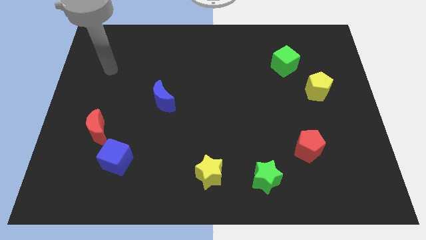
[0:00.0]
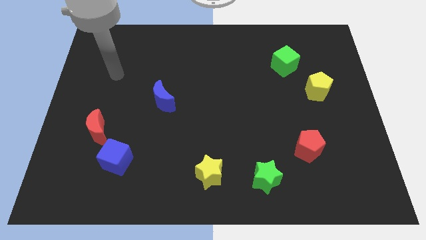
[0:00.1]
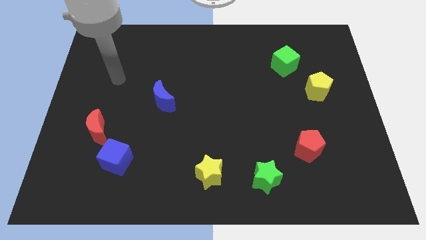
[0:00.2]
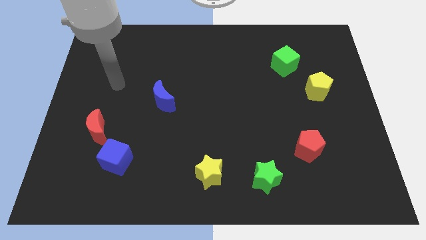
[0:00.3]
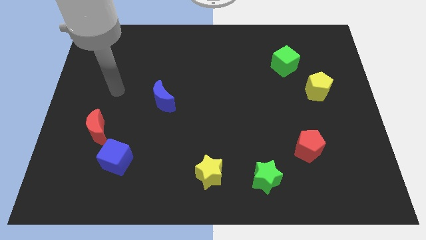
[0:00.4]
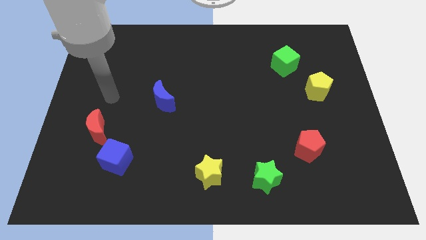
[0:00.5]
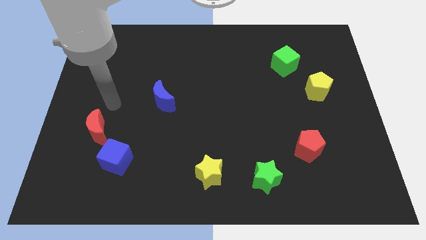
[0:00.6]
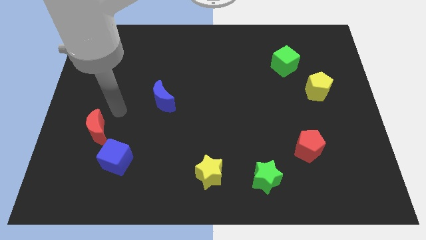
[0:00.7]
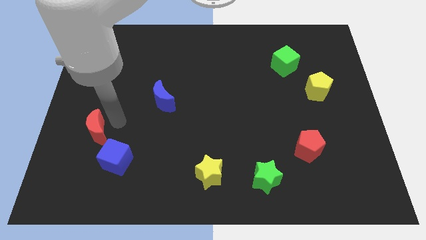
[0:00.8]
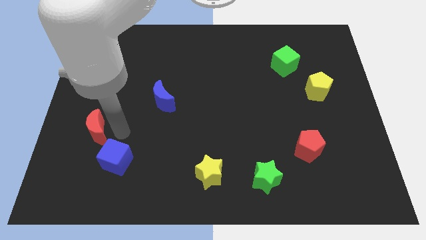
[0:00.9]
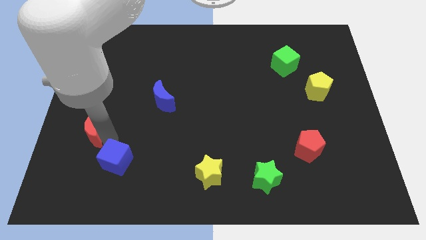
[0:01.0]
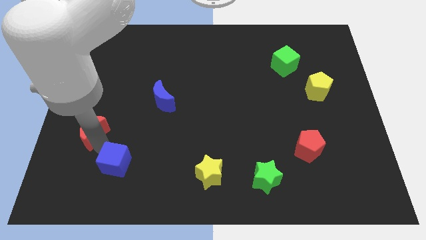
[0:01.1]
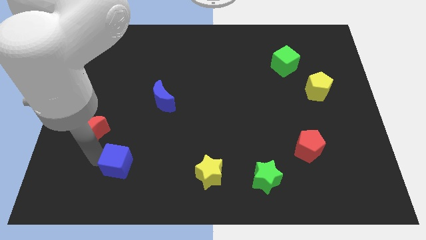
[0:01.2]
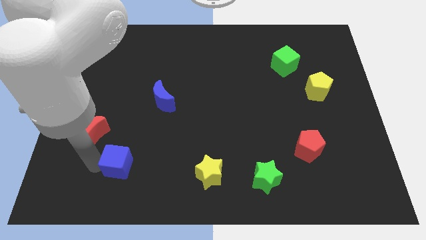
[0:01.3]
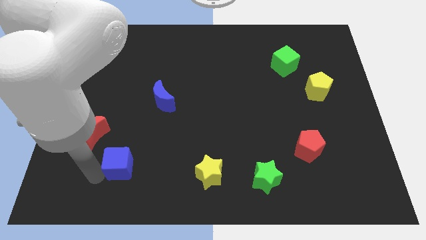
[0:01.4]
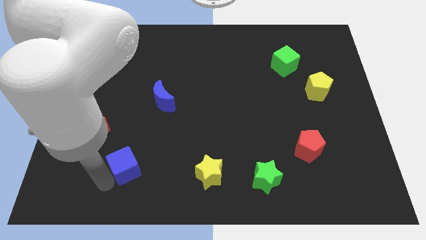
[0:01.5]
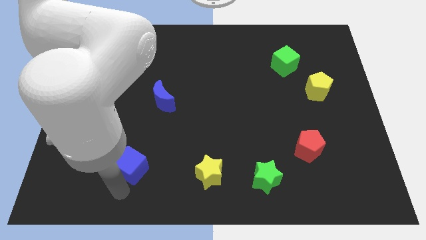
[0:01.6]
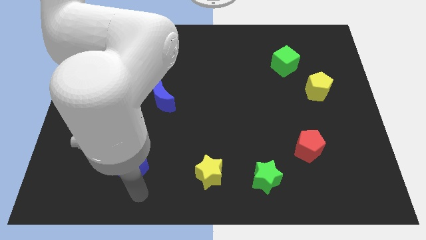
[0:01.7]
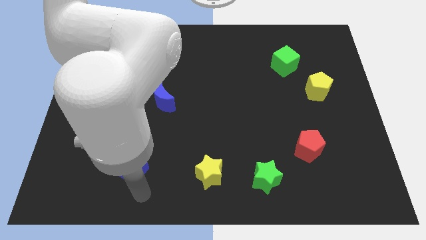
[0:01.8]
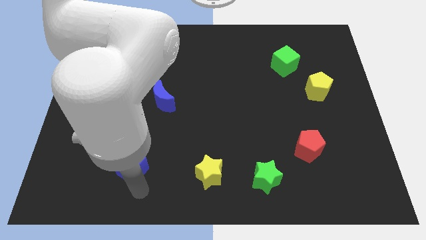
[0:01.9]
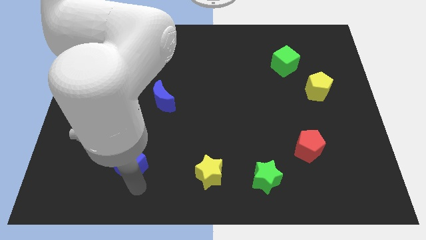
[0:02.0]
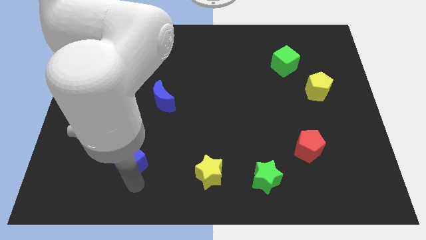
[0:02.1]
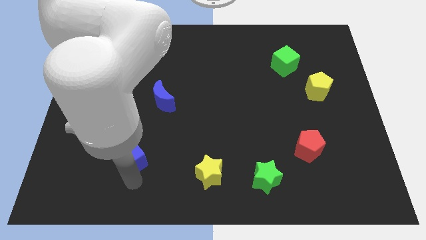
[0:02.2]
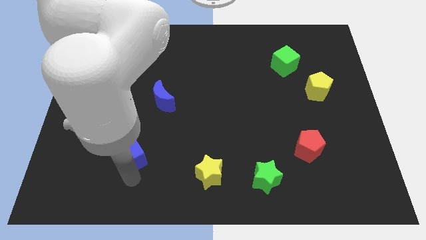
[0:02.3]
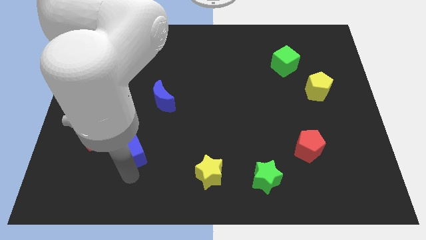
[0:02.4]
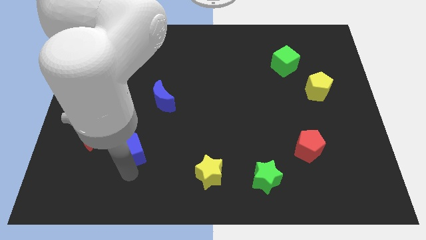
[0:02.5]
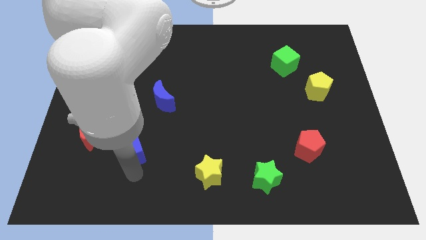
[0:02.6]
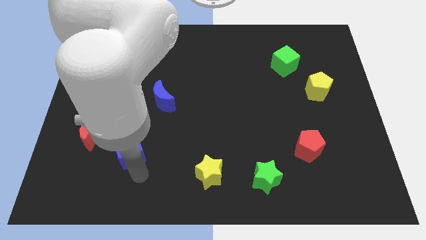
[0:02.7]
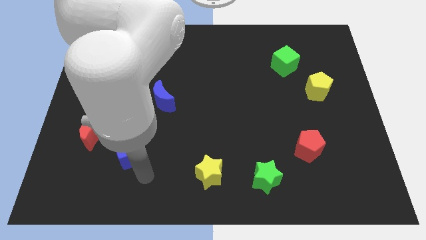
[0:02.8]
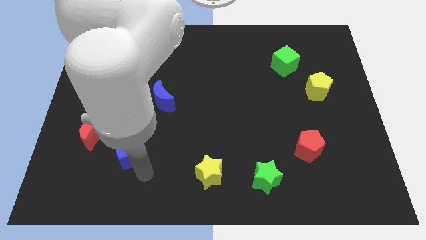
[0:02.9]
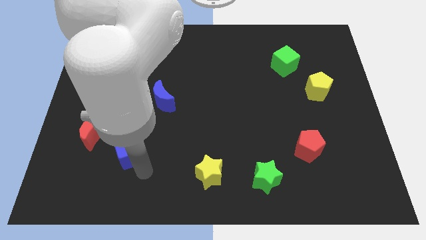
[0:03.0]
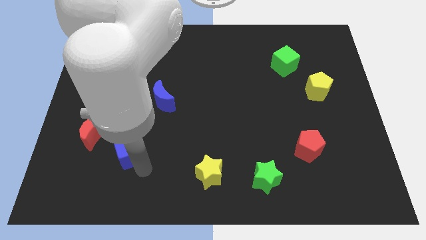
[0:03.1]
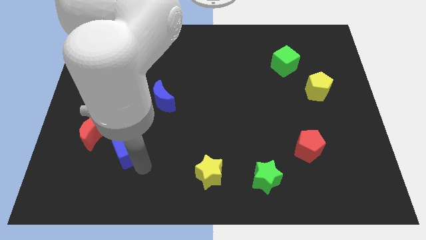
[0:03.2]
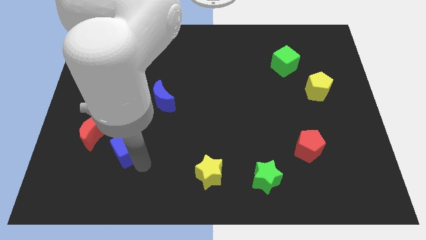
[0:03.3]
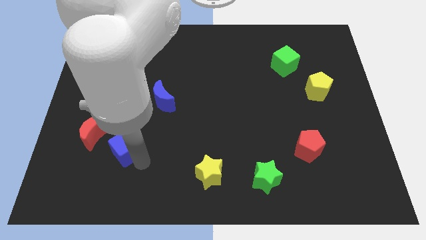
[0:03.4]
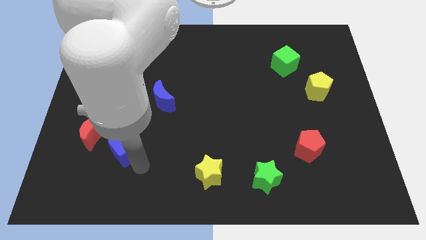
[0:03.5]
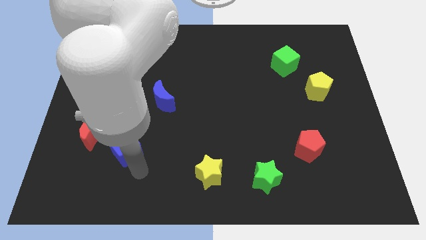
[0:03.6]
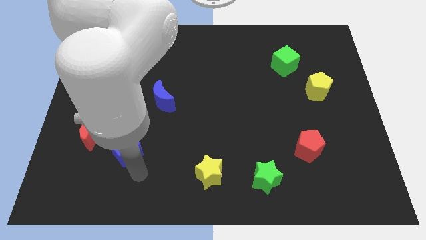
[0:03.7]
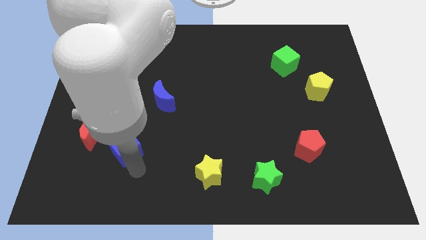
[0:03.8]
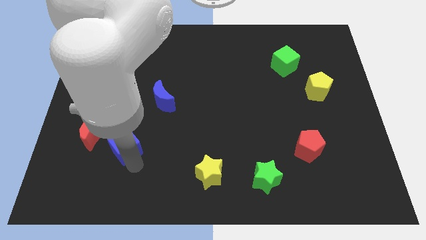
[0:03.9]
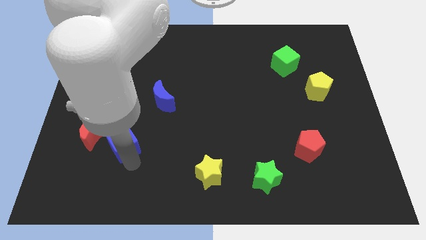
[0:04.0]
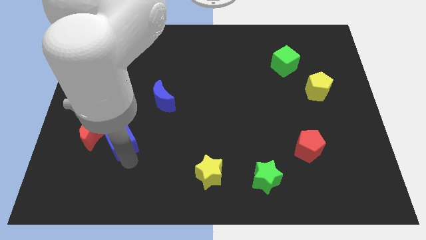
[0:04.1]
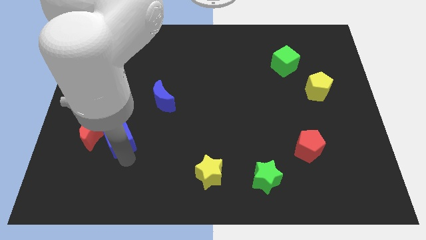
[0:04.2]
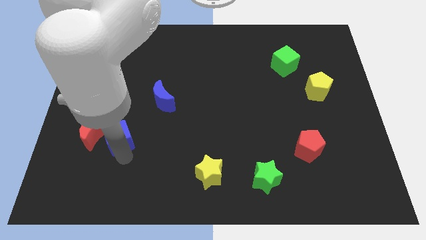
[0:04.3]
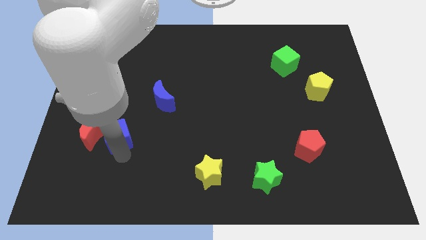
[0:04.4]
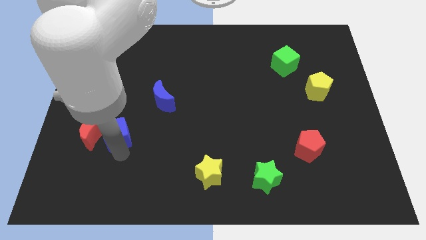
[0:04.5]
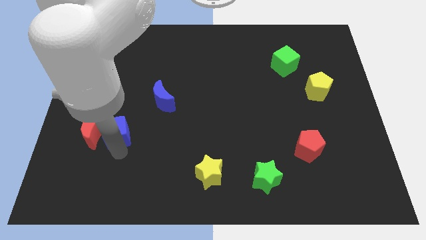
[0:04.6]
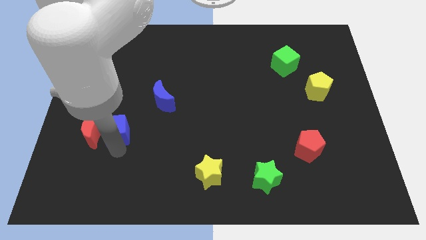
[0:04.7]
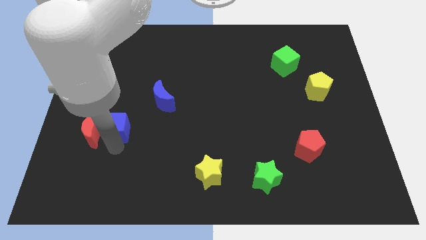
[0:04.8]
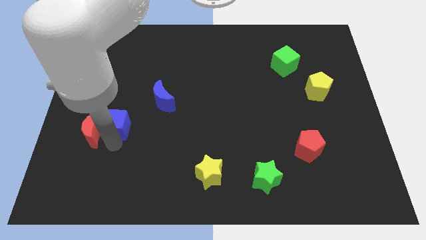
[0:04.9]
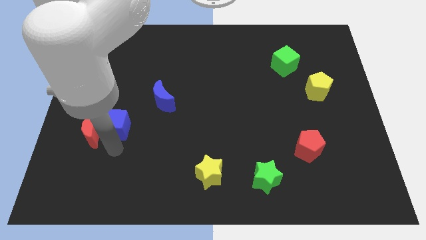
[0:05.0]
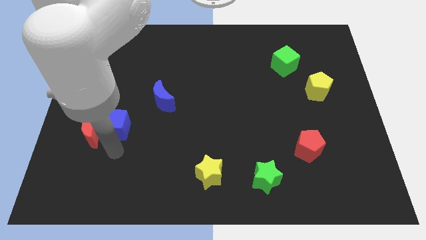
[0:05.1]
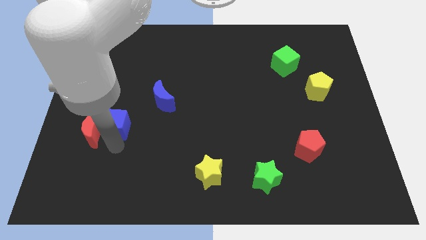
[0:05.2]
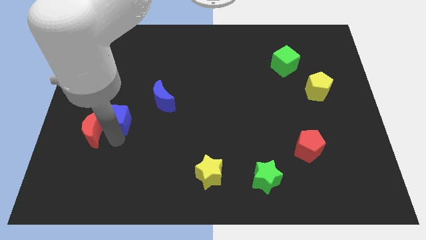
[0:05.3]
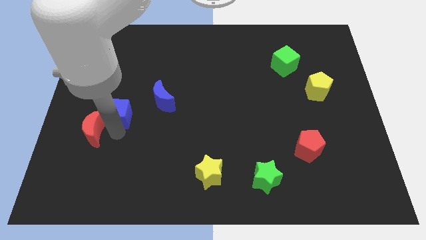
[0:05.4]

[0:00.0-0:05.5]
move the blue cube to the left of the blue moon

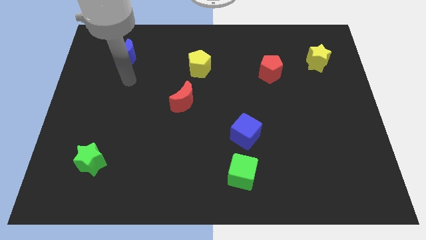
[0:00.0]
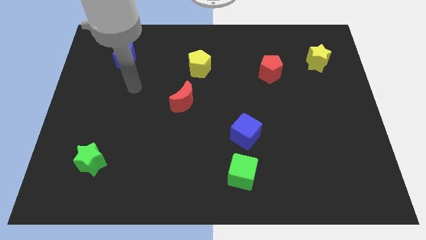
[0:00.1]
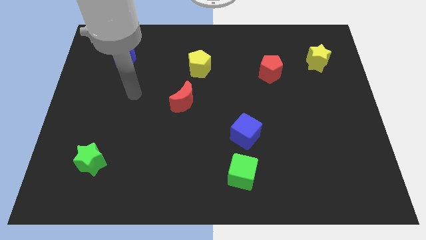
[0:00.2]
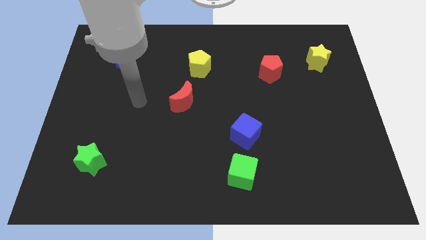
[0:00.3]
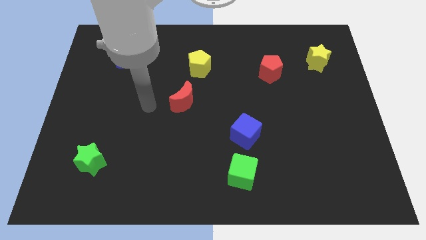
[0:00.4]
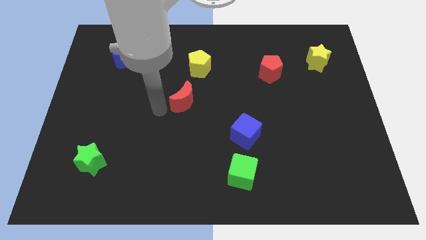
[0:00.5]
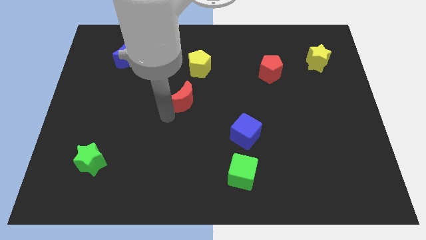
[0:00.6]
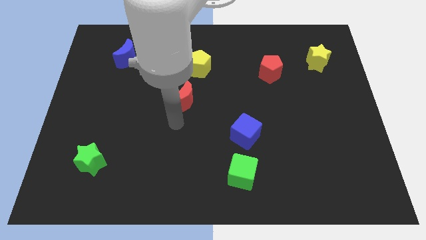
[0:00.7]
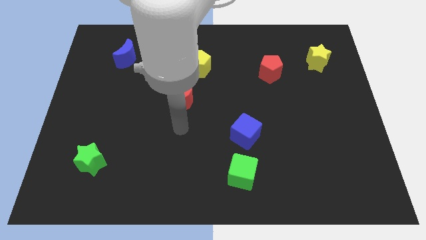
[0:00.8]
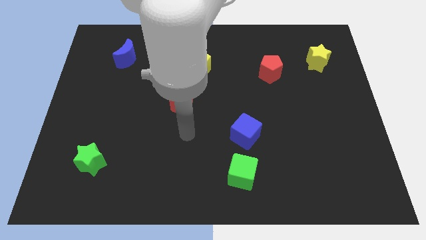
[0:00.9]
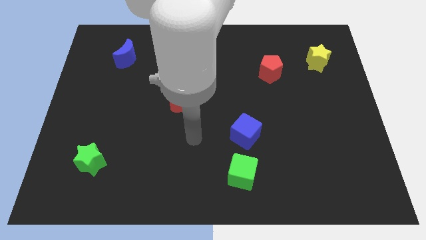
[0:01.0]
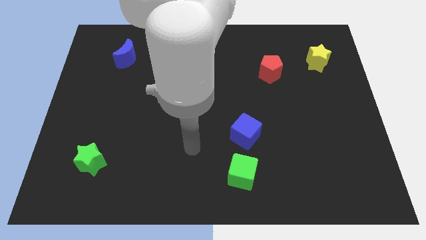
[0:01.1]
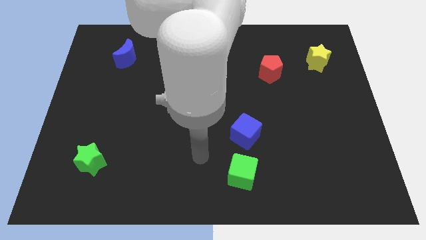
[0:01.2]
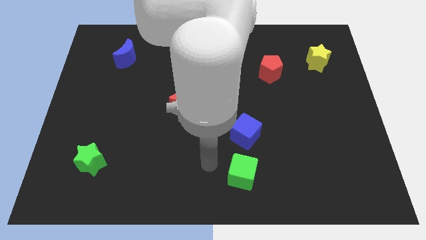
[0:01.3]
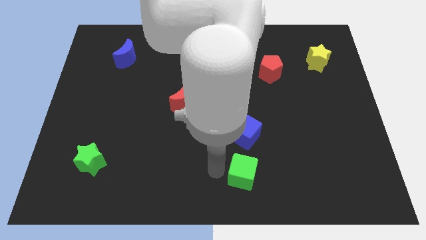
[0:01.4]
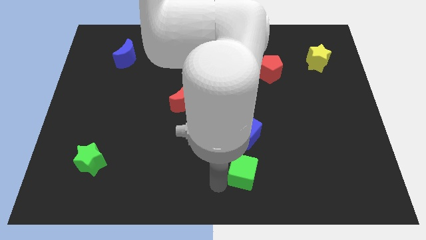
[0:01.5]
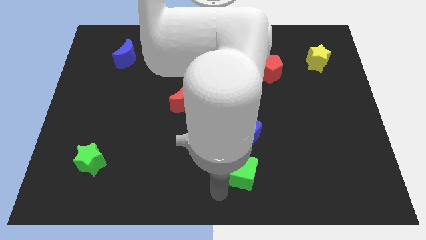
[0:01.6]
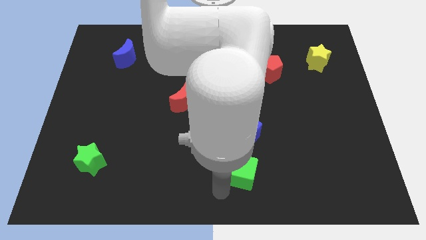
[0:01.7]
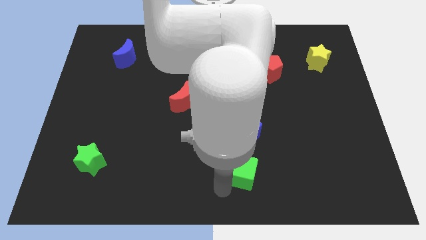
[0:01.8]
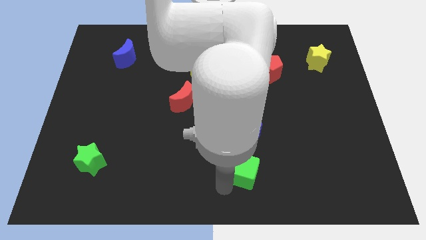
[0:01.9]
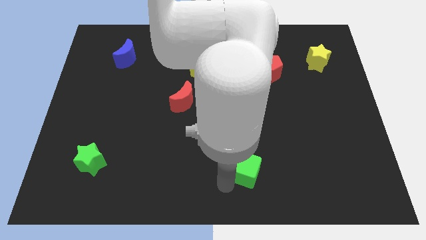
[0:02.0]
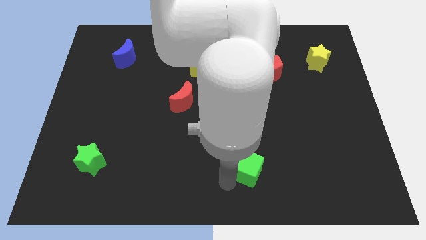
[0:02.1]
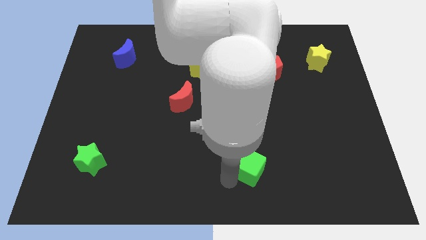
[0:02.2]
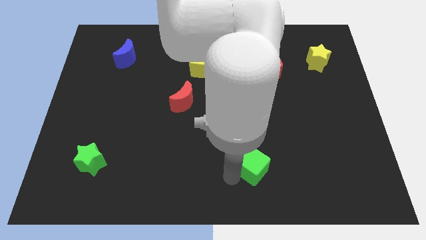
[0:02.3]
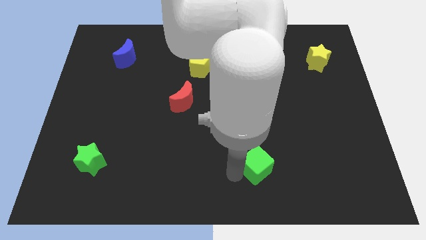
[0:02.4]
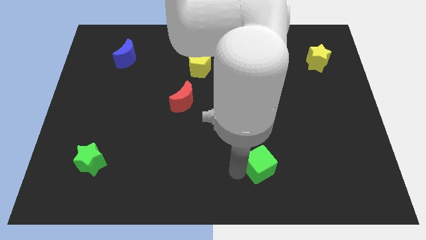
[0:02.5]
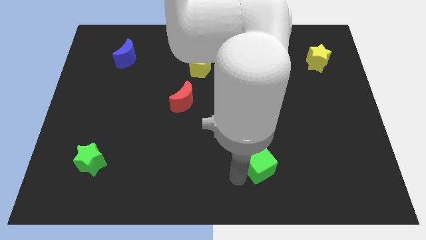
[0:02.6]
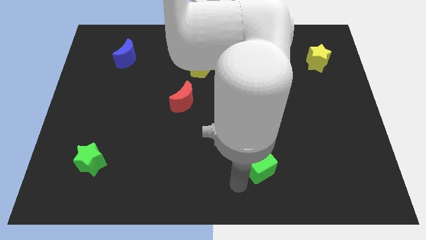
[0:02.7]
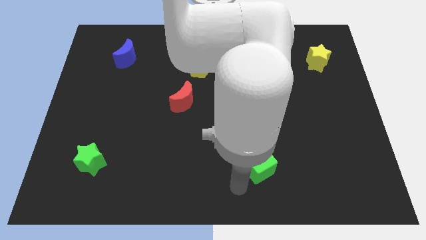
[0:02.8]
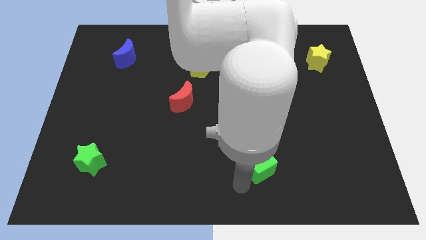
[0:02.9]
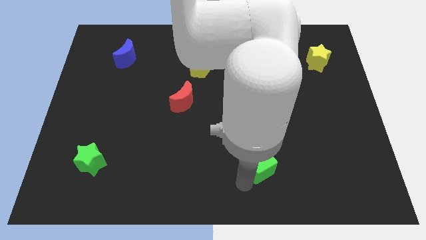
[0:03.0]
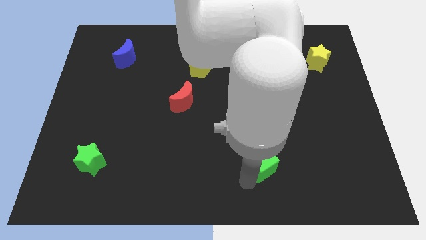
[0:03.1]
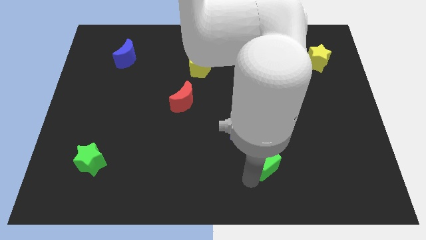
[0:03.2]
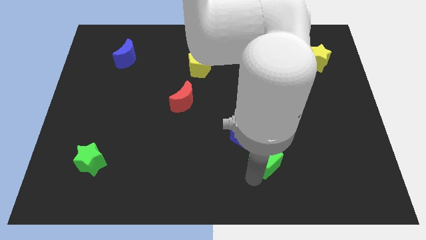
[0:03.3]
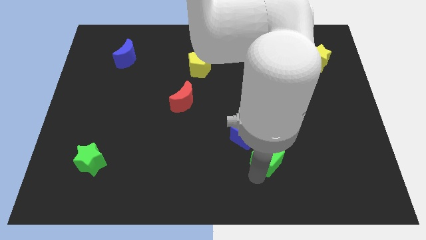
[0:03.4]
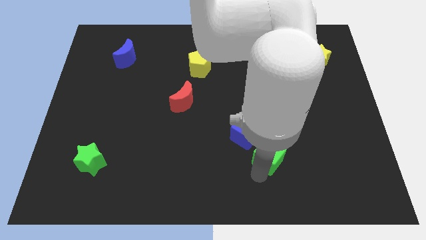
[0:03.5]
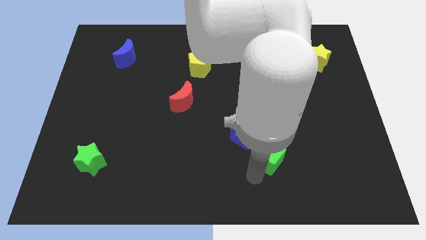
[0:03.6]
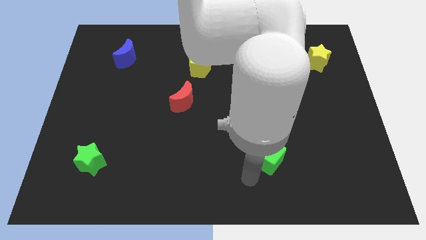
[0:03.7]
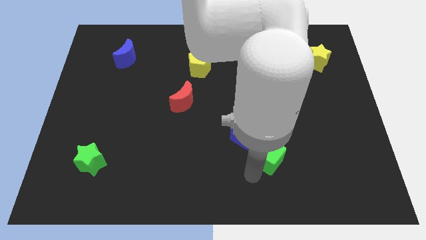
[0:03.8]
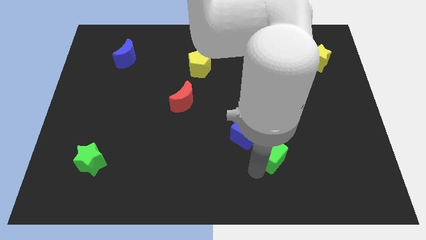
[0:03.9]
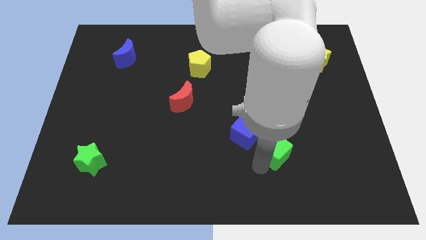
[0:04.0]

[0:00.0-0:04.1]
push the green cube just right of the blue cube
